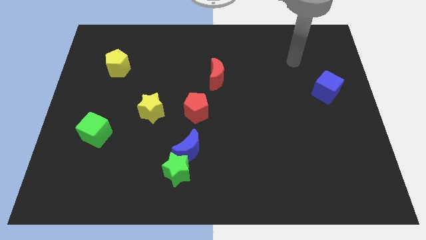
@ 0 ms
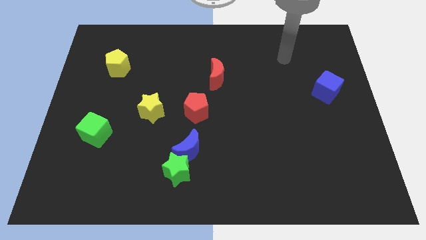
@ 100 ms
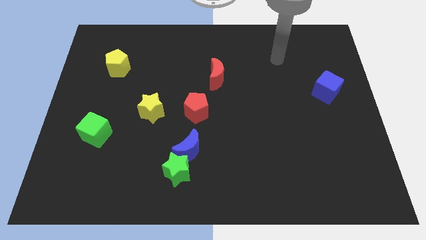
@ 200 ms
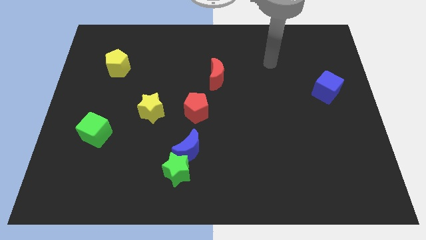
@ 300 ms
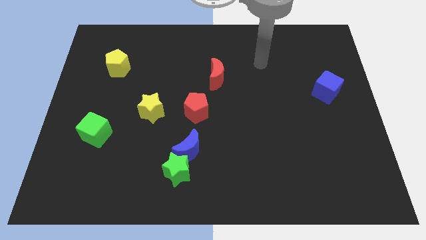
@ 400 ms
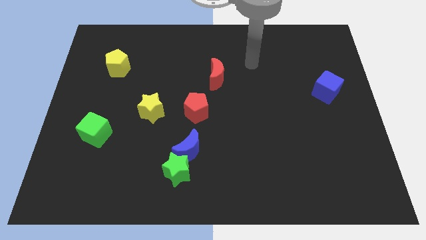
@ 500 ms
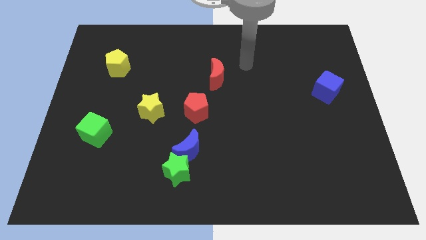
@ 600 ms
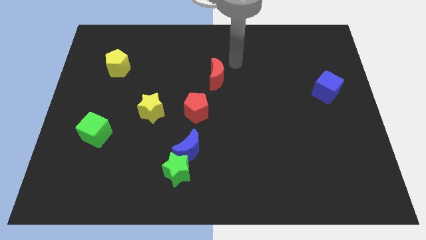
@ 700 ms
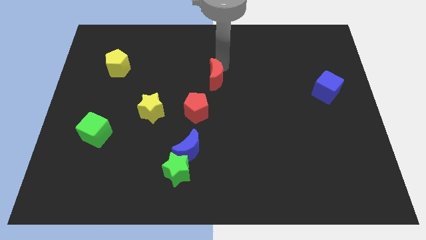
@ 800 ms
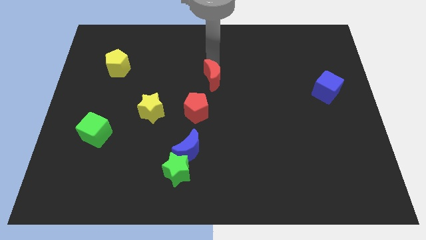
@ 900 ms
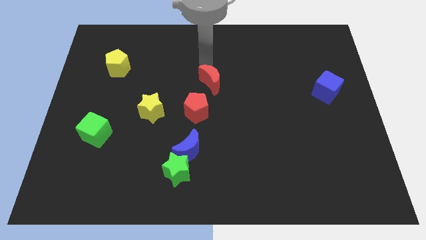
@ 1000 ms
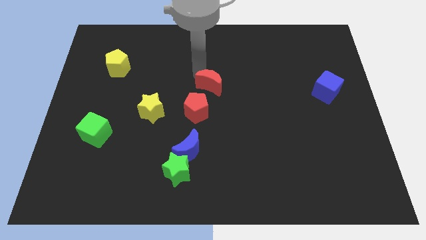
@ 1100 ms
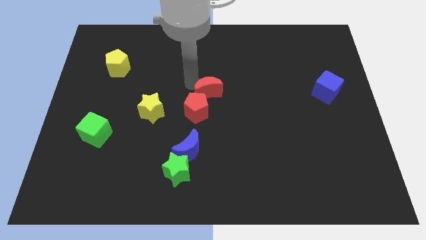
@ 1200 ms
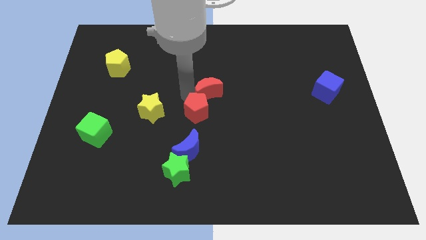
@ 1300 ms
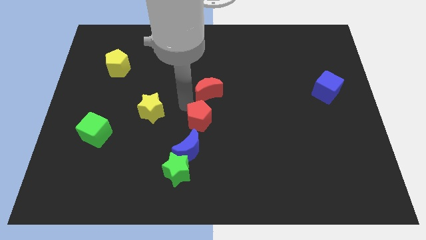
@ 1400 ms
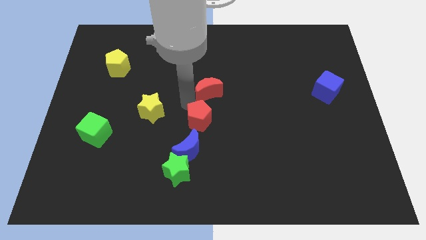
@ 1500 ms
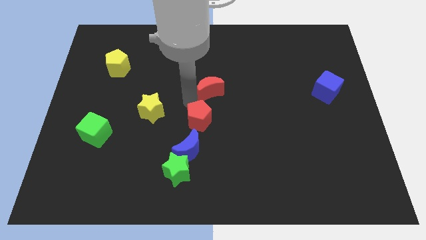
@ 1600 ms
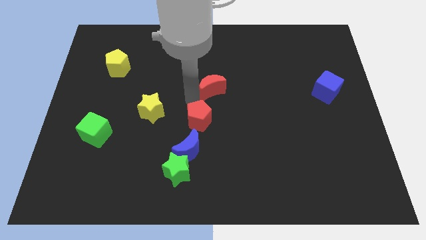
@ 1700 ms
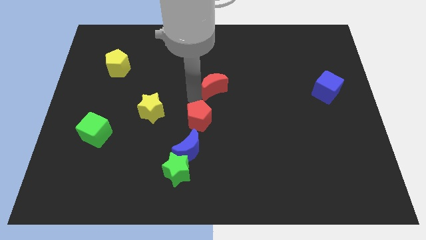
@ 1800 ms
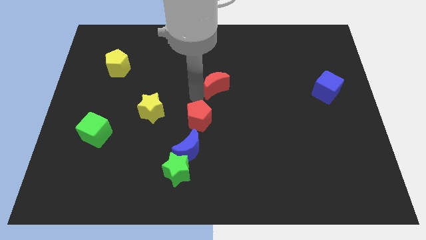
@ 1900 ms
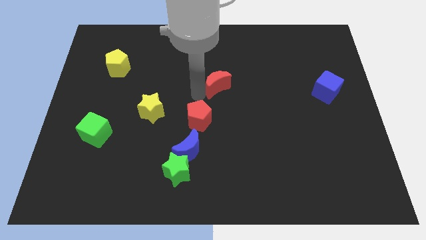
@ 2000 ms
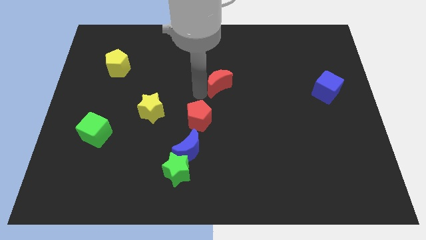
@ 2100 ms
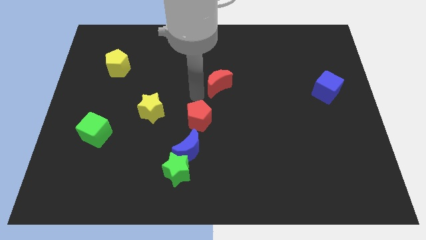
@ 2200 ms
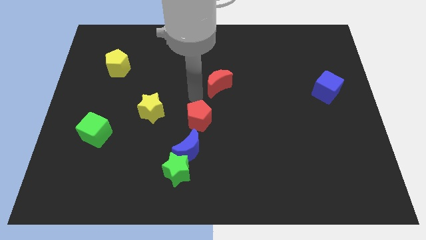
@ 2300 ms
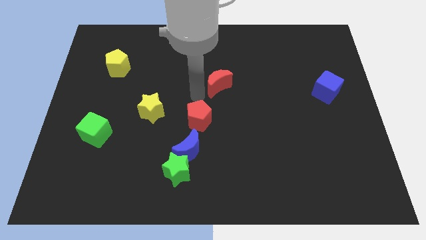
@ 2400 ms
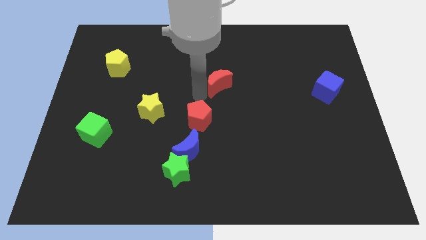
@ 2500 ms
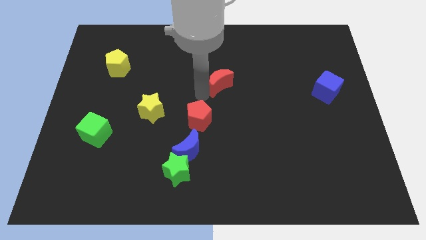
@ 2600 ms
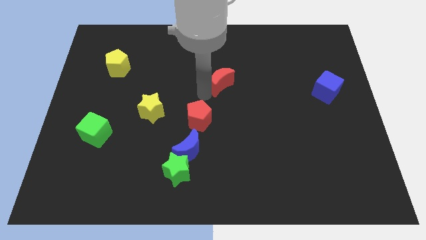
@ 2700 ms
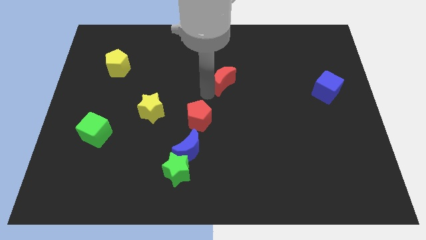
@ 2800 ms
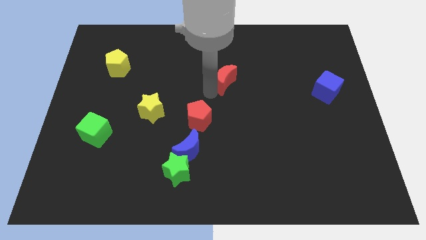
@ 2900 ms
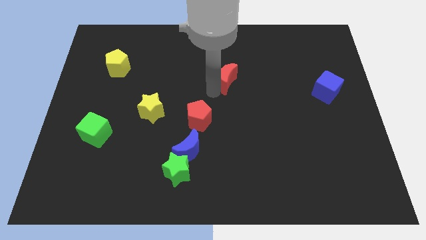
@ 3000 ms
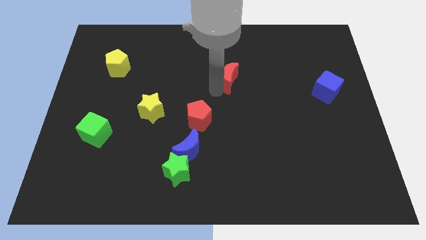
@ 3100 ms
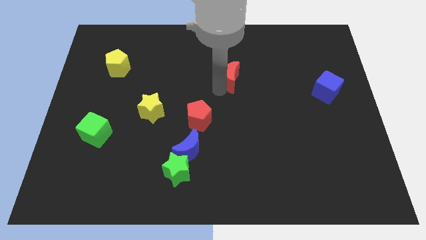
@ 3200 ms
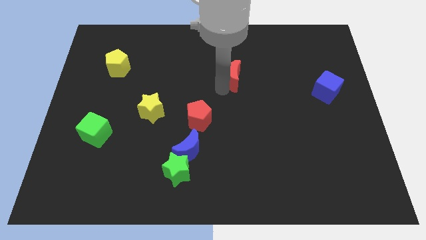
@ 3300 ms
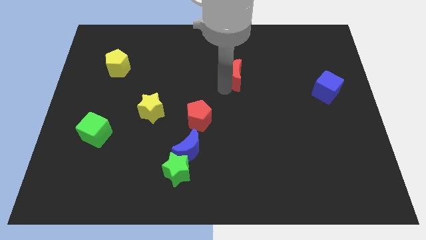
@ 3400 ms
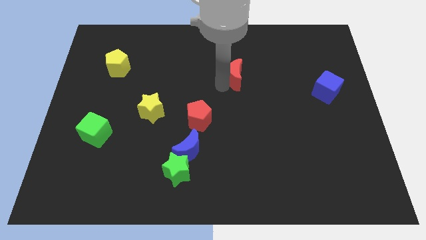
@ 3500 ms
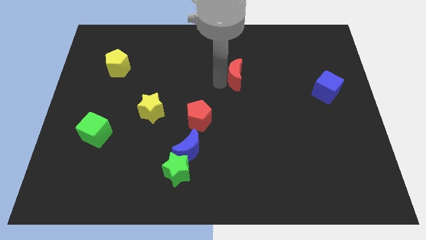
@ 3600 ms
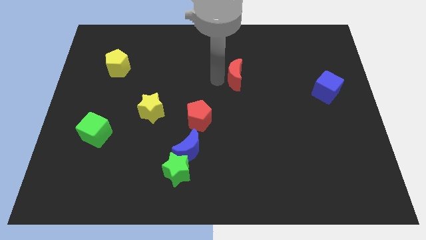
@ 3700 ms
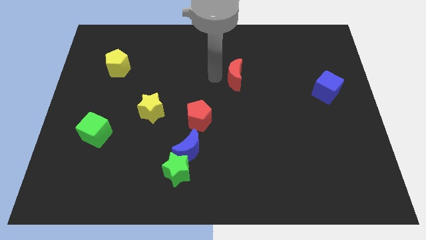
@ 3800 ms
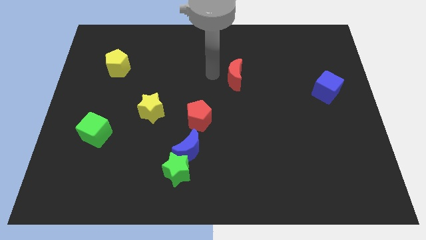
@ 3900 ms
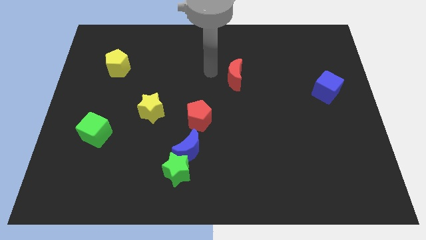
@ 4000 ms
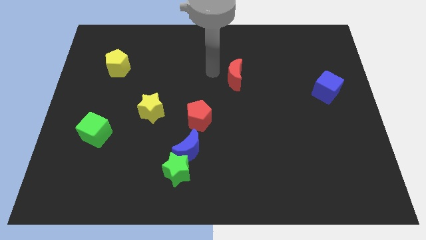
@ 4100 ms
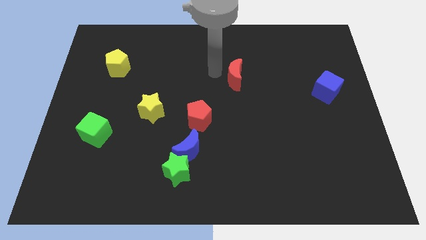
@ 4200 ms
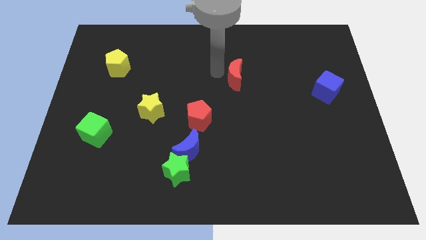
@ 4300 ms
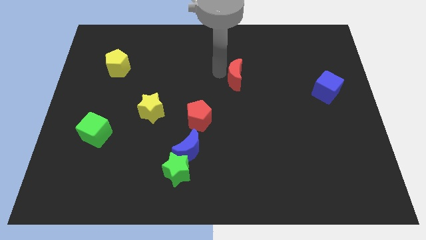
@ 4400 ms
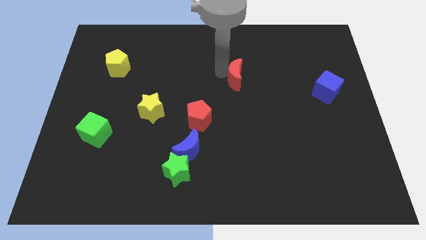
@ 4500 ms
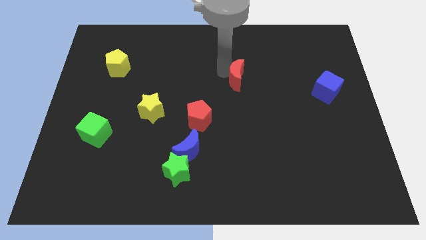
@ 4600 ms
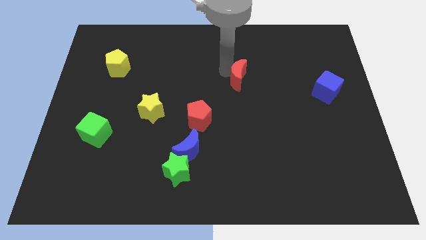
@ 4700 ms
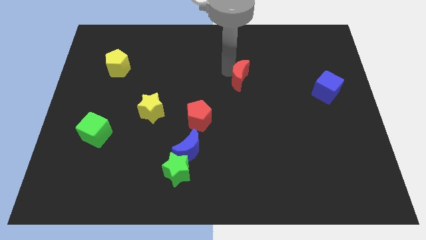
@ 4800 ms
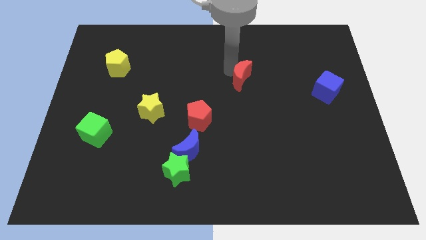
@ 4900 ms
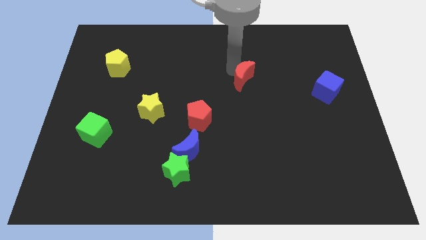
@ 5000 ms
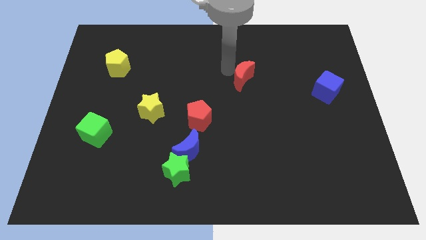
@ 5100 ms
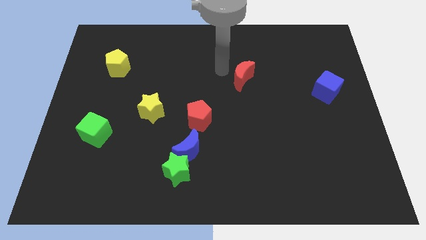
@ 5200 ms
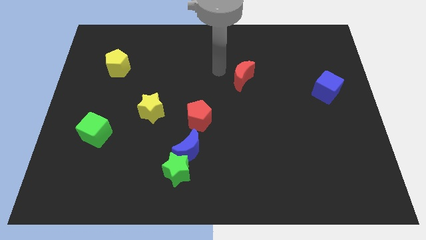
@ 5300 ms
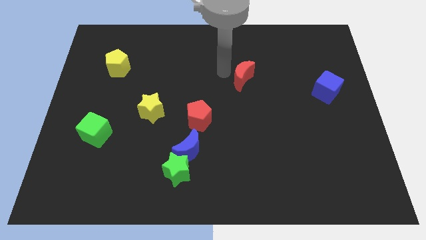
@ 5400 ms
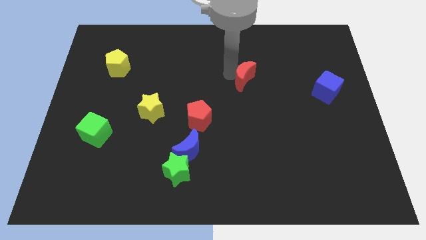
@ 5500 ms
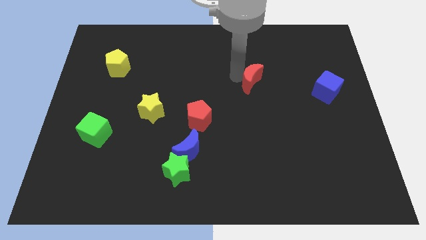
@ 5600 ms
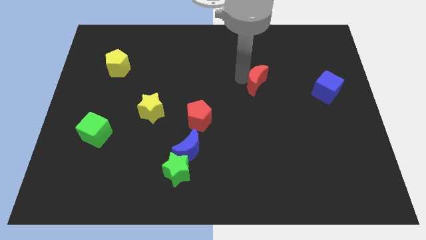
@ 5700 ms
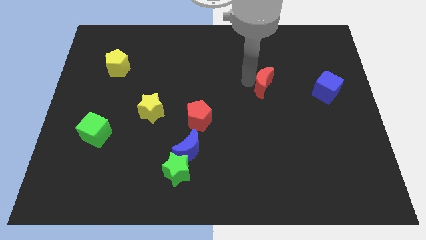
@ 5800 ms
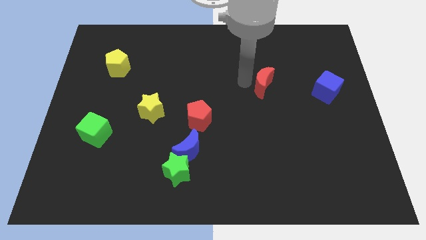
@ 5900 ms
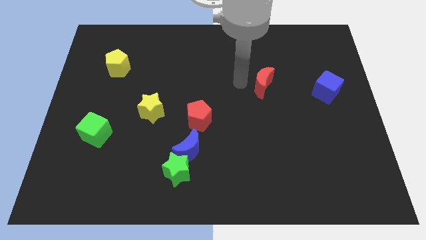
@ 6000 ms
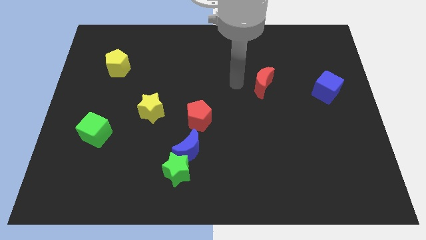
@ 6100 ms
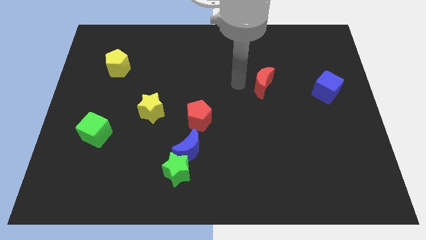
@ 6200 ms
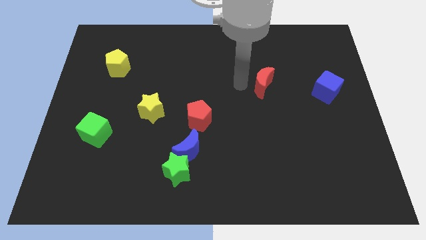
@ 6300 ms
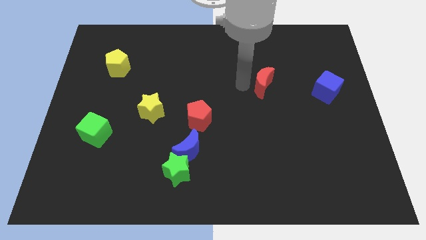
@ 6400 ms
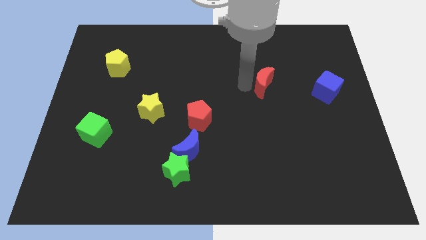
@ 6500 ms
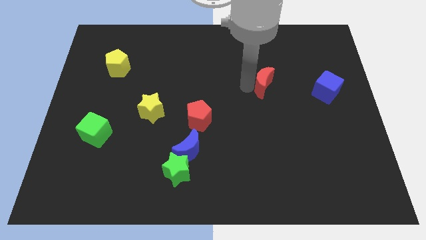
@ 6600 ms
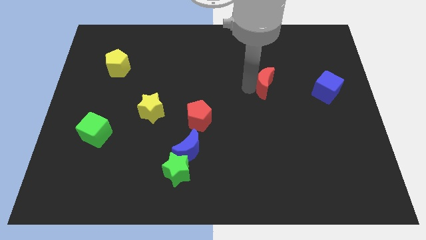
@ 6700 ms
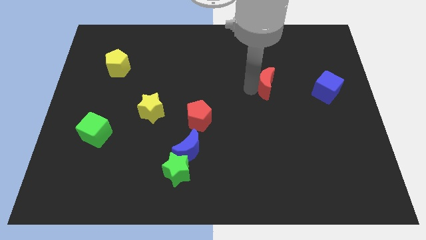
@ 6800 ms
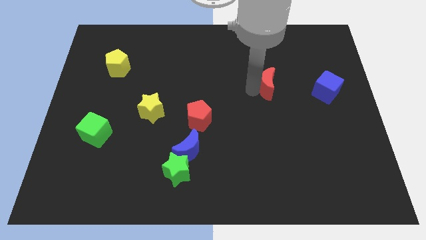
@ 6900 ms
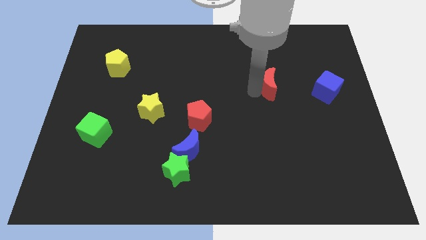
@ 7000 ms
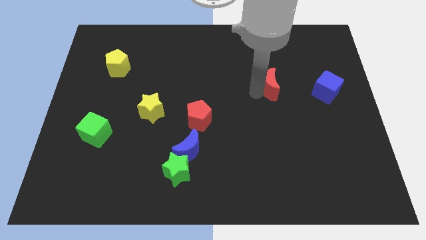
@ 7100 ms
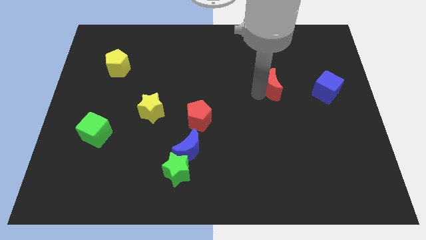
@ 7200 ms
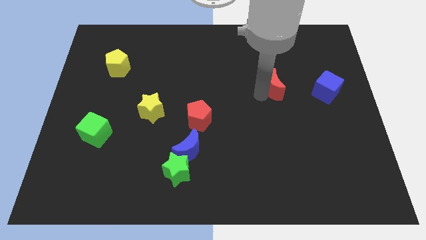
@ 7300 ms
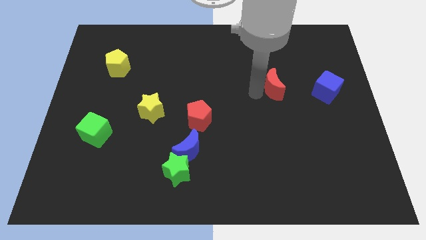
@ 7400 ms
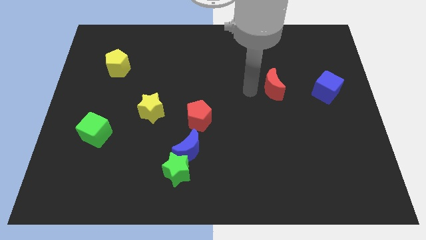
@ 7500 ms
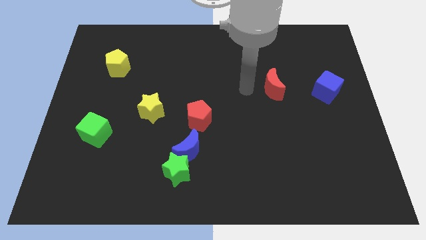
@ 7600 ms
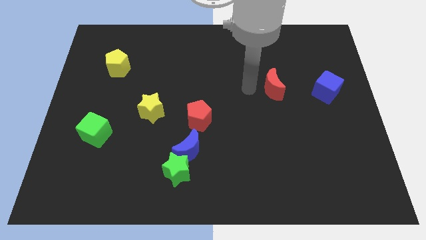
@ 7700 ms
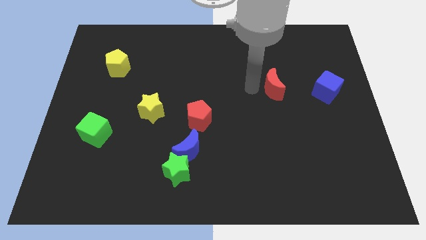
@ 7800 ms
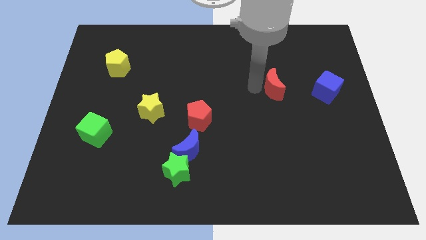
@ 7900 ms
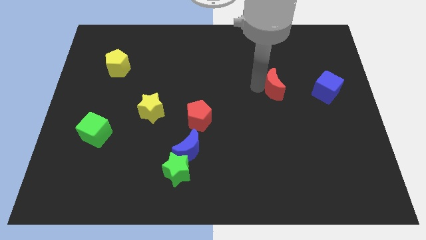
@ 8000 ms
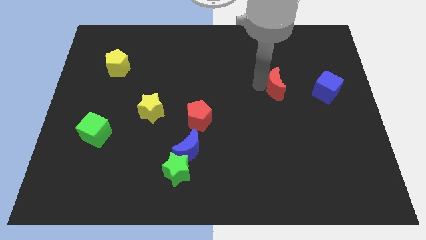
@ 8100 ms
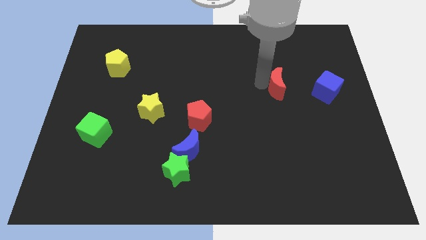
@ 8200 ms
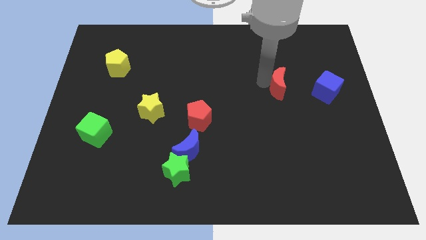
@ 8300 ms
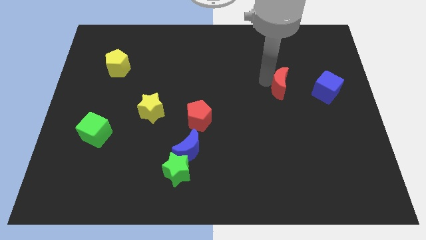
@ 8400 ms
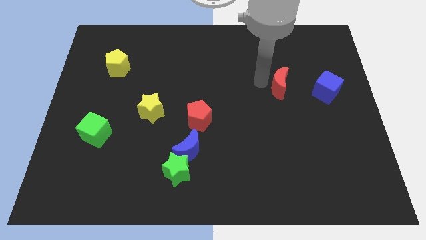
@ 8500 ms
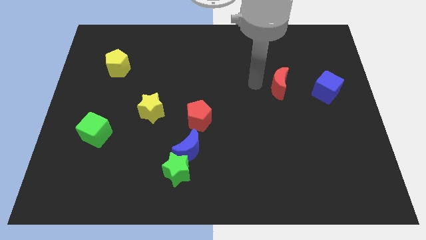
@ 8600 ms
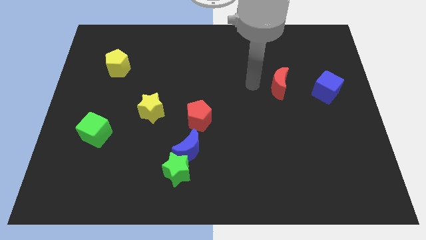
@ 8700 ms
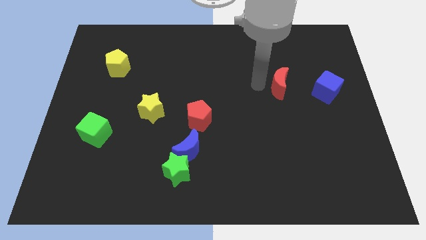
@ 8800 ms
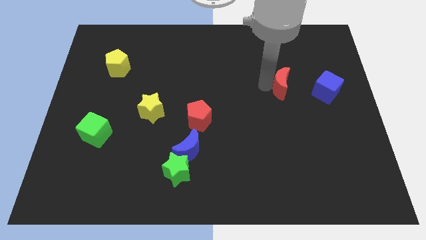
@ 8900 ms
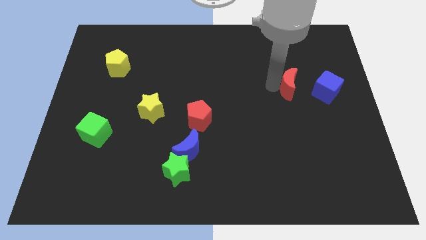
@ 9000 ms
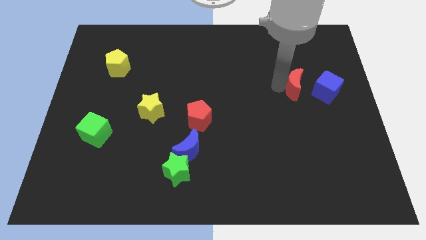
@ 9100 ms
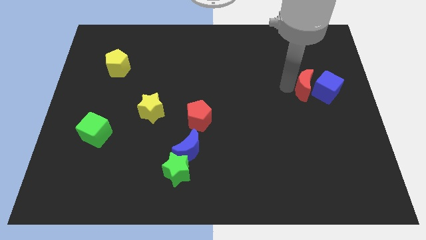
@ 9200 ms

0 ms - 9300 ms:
push the red moon close to the blue cube
